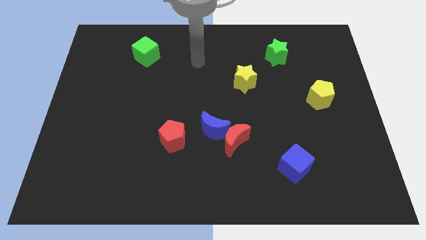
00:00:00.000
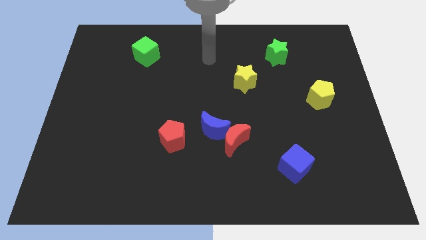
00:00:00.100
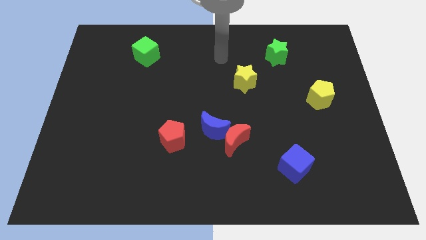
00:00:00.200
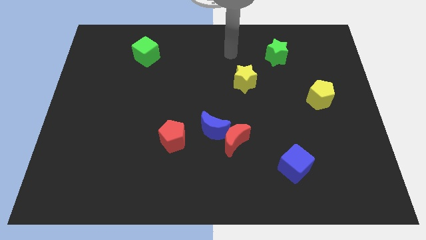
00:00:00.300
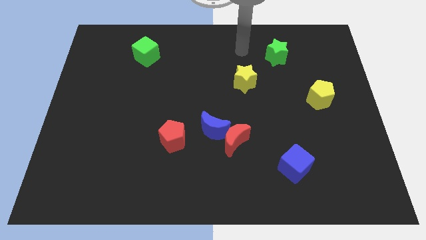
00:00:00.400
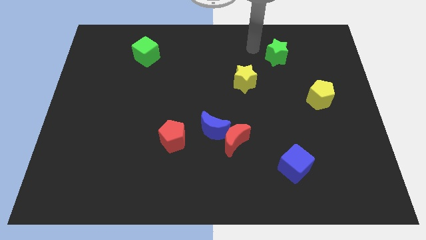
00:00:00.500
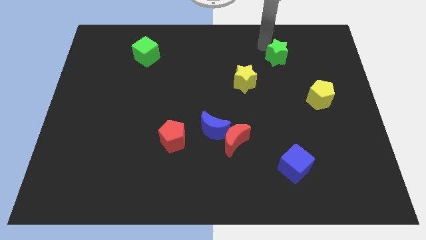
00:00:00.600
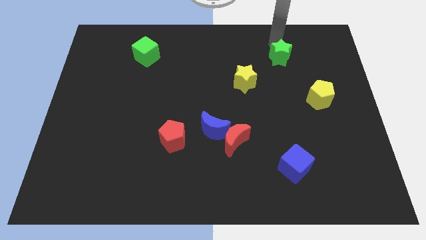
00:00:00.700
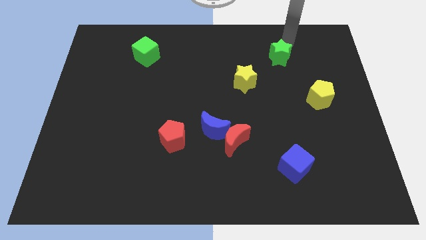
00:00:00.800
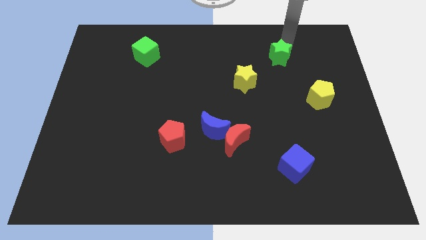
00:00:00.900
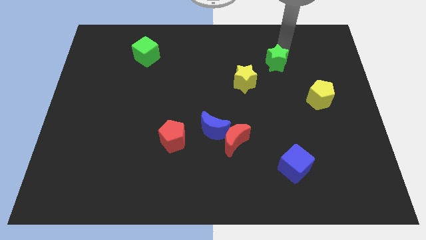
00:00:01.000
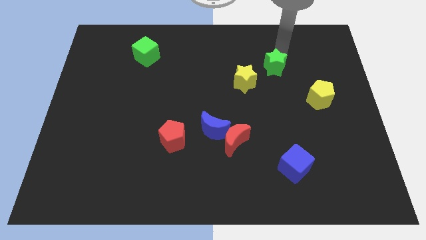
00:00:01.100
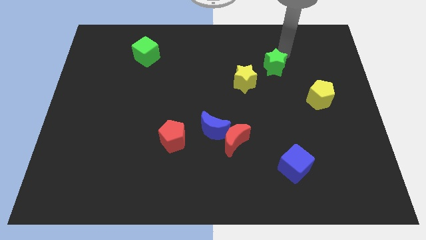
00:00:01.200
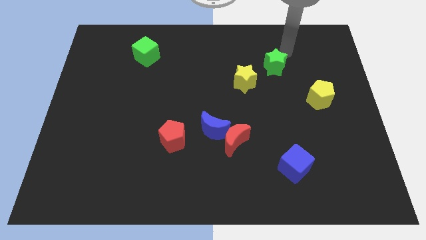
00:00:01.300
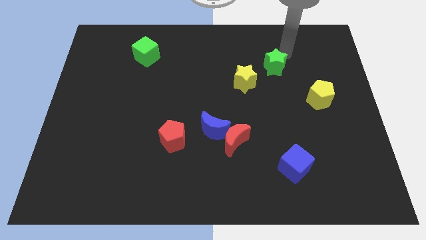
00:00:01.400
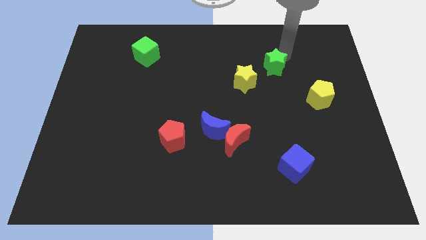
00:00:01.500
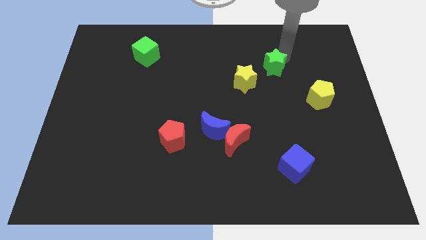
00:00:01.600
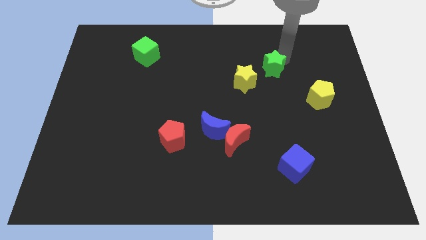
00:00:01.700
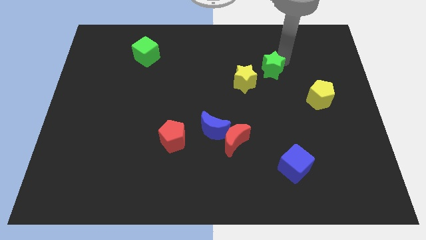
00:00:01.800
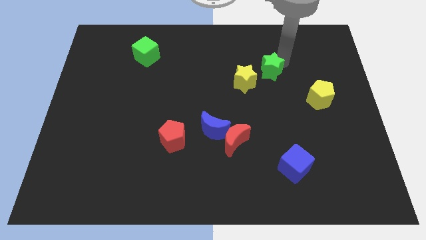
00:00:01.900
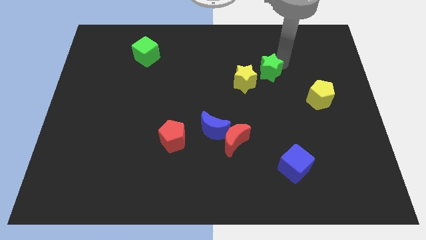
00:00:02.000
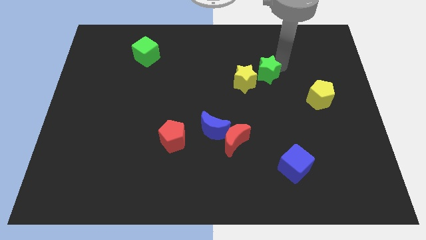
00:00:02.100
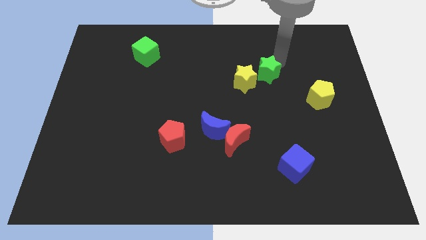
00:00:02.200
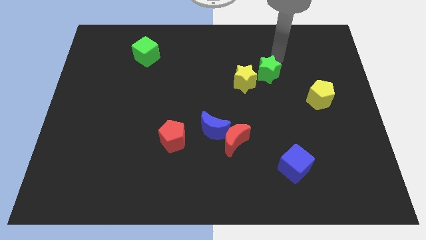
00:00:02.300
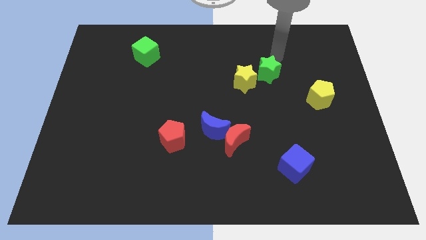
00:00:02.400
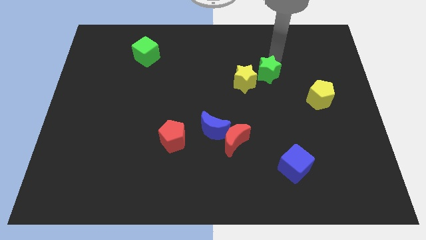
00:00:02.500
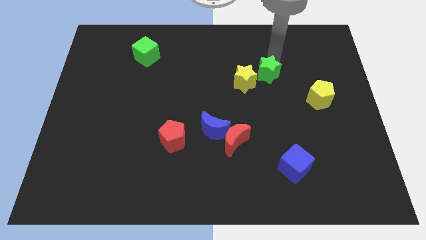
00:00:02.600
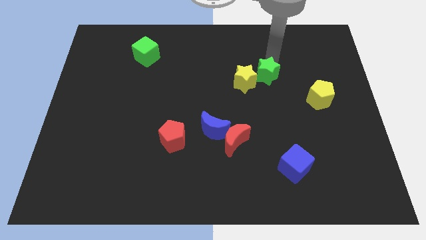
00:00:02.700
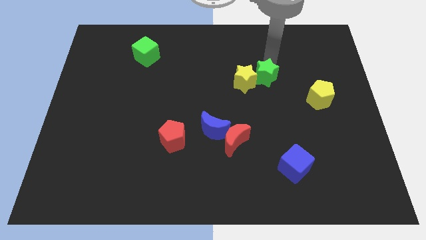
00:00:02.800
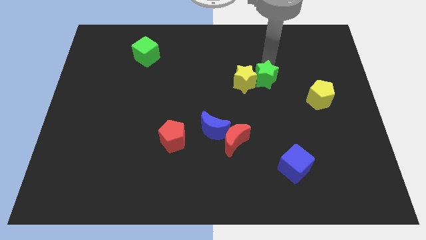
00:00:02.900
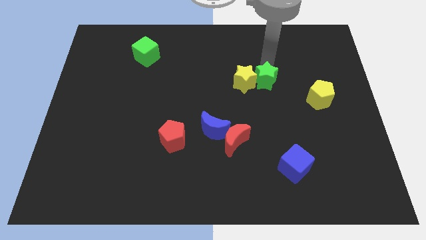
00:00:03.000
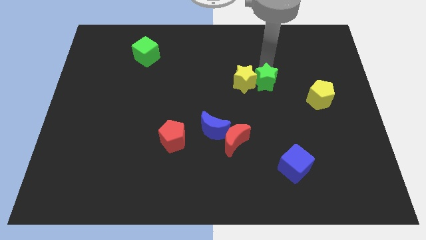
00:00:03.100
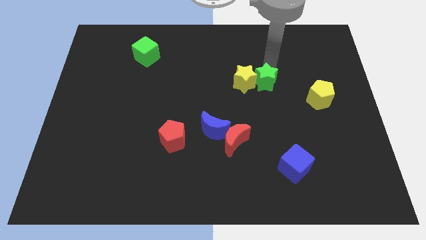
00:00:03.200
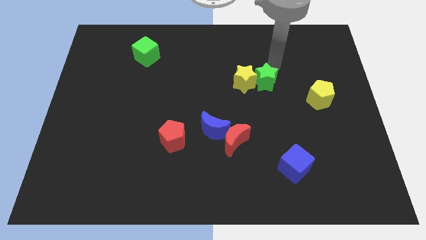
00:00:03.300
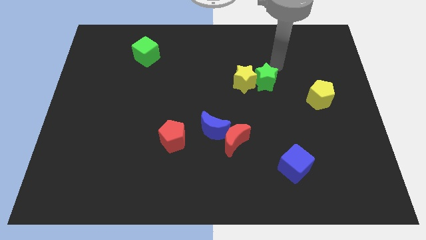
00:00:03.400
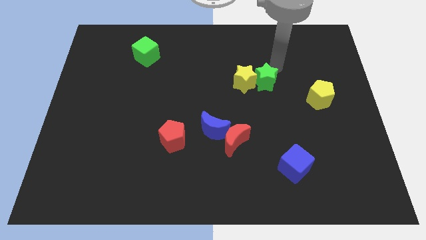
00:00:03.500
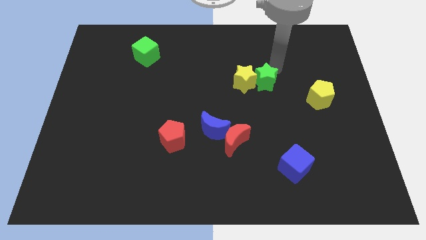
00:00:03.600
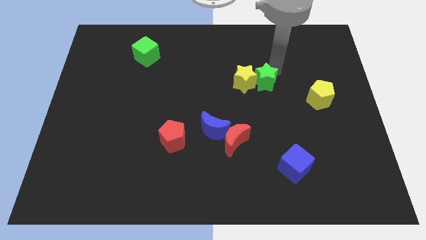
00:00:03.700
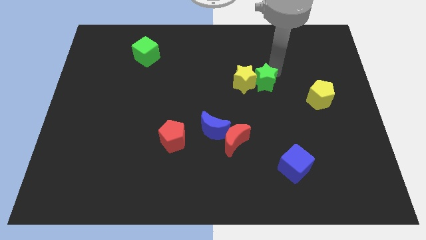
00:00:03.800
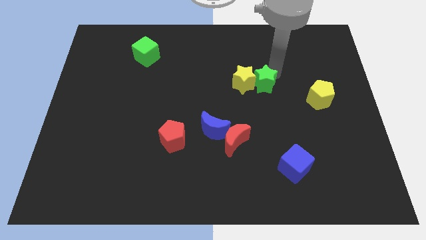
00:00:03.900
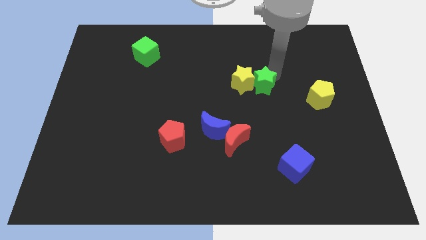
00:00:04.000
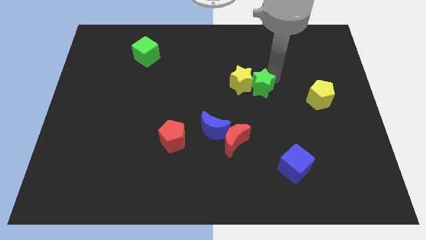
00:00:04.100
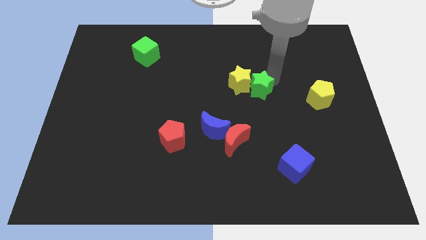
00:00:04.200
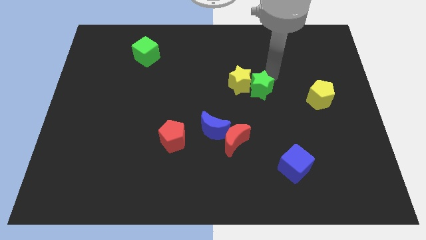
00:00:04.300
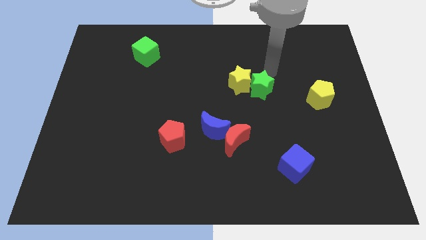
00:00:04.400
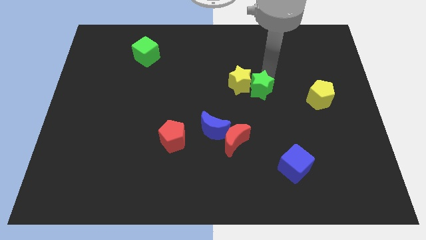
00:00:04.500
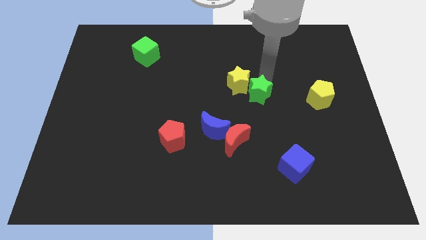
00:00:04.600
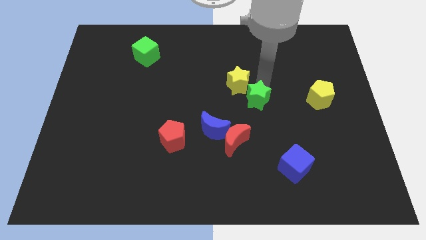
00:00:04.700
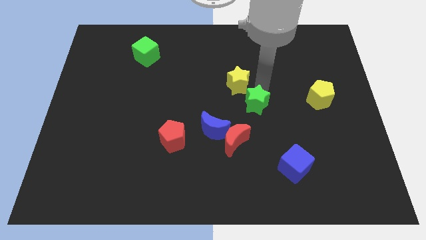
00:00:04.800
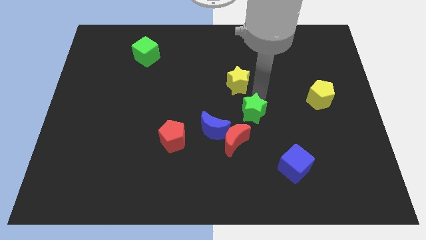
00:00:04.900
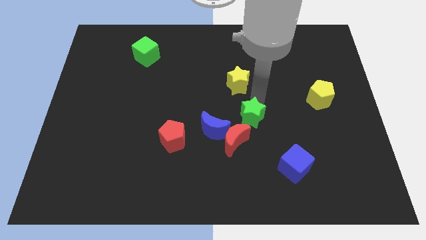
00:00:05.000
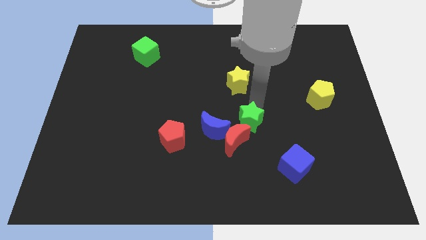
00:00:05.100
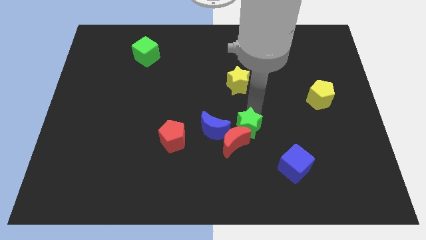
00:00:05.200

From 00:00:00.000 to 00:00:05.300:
move the green star next to the red moon

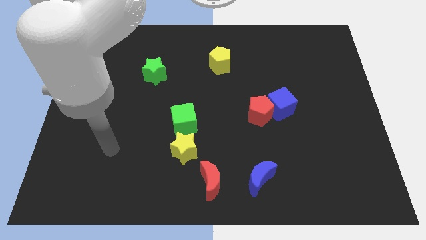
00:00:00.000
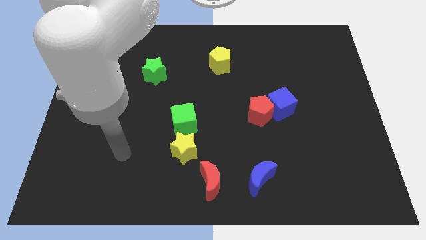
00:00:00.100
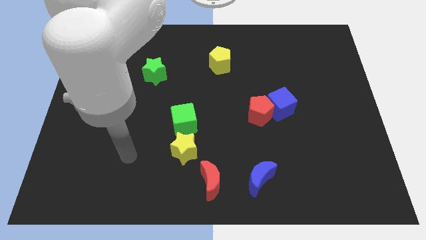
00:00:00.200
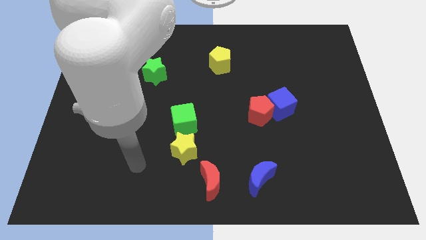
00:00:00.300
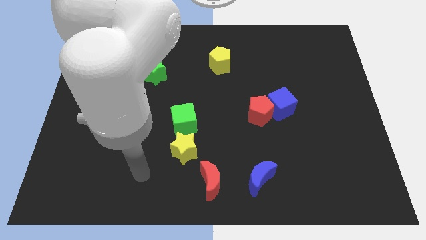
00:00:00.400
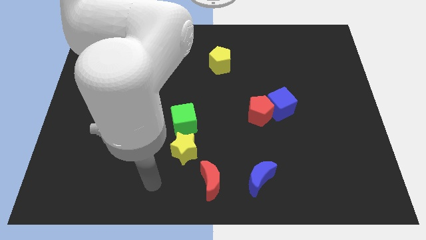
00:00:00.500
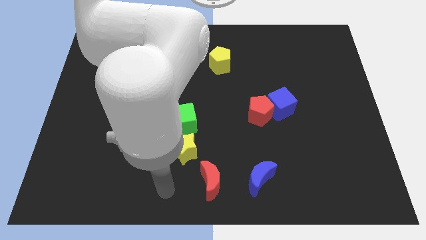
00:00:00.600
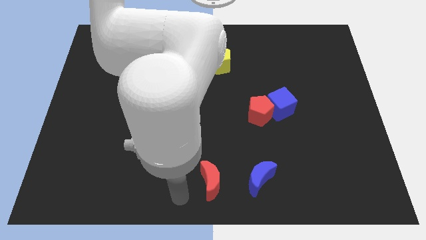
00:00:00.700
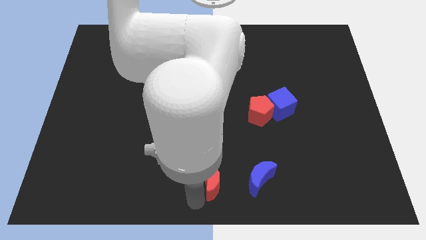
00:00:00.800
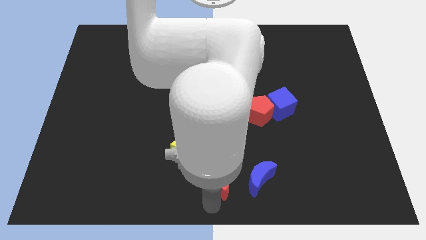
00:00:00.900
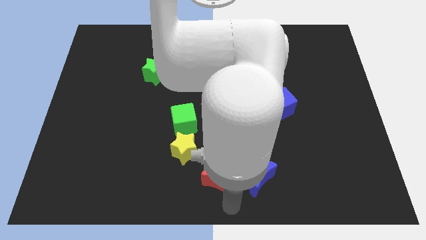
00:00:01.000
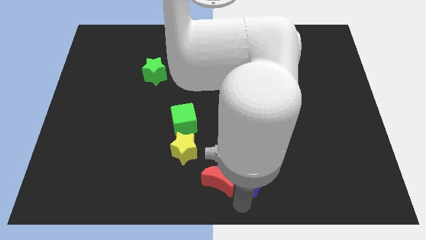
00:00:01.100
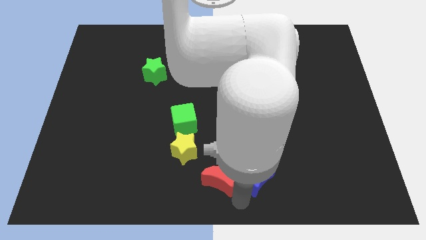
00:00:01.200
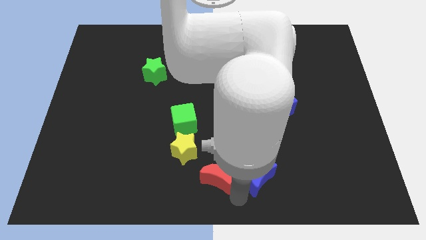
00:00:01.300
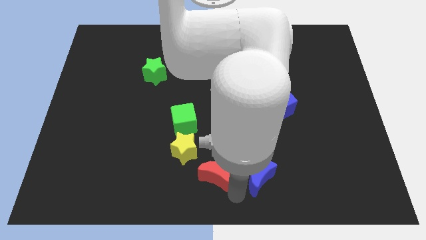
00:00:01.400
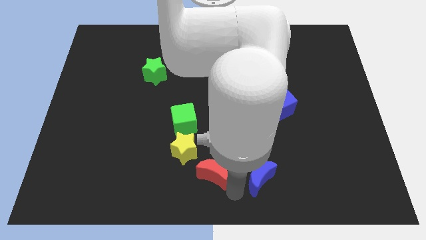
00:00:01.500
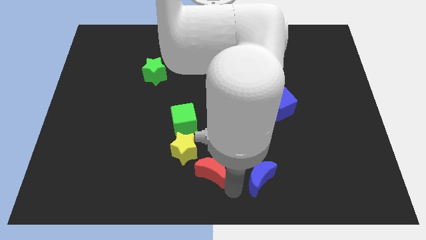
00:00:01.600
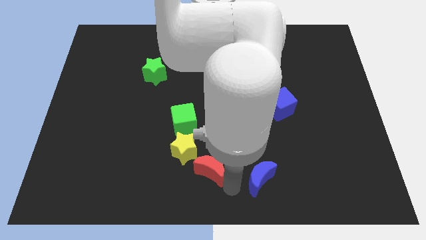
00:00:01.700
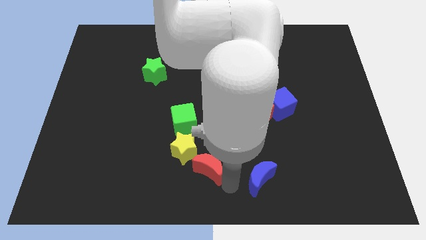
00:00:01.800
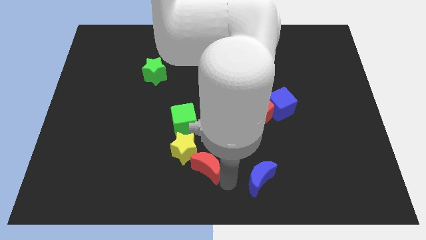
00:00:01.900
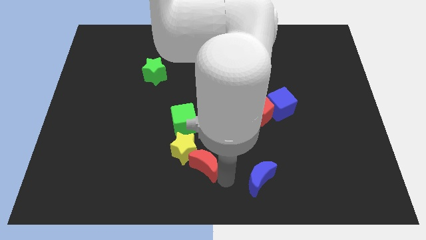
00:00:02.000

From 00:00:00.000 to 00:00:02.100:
push the red moon next to the yellow star
